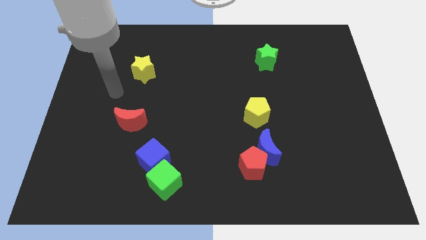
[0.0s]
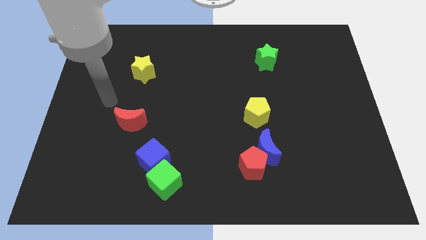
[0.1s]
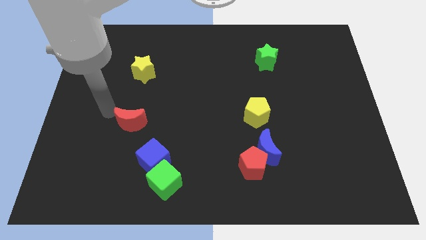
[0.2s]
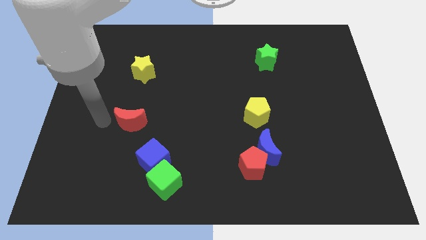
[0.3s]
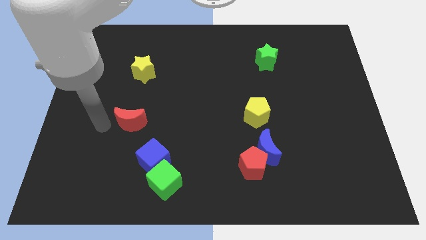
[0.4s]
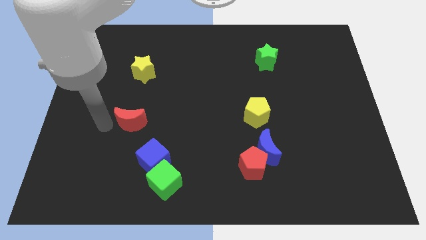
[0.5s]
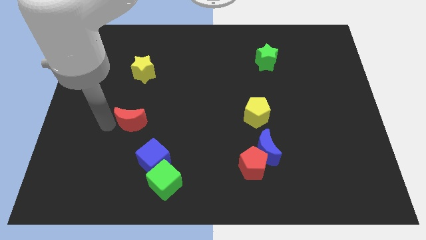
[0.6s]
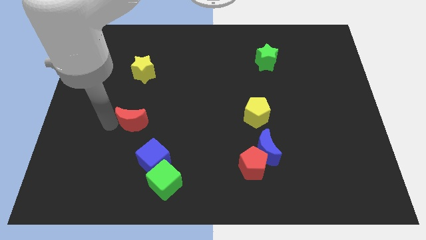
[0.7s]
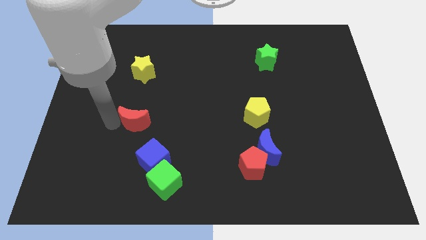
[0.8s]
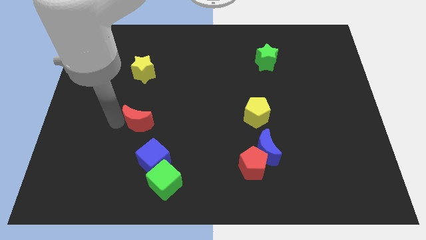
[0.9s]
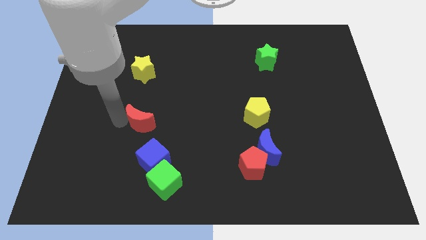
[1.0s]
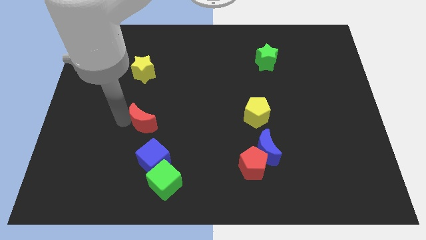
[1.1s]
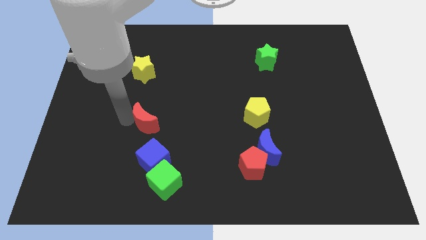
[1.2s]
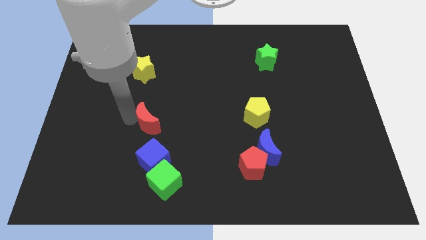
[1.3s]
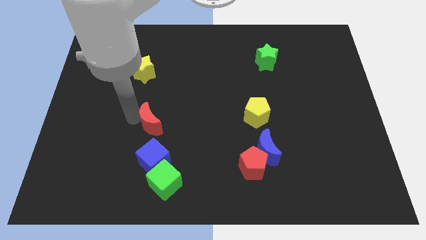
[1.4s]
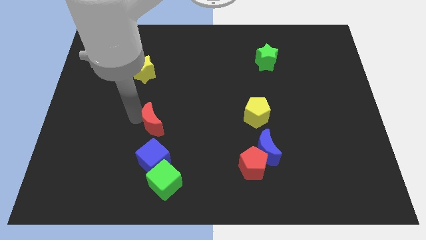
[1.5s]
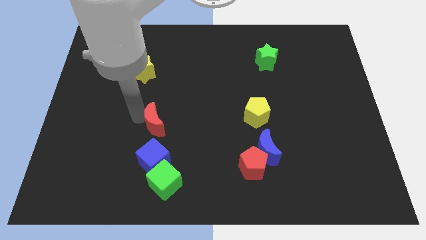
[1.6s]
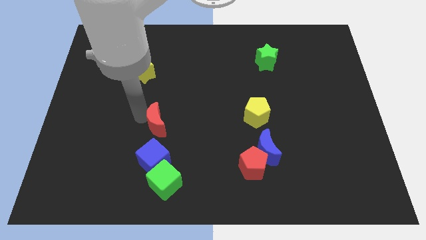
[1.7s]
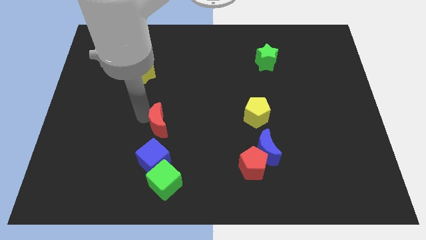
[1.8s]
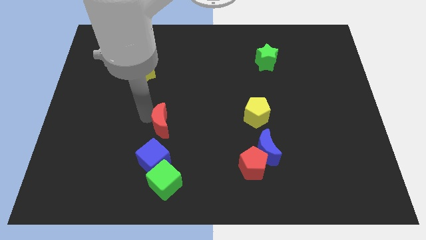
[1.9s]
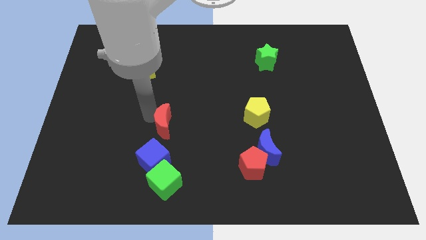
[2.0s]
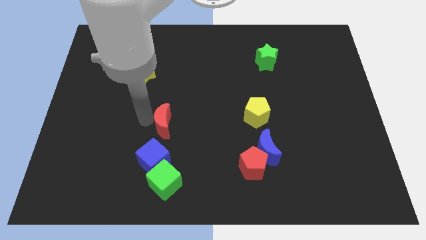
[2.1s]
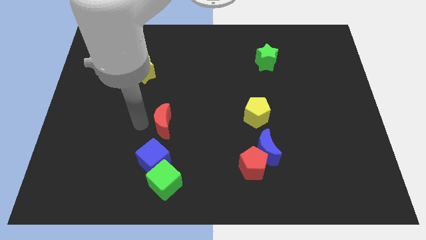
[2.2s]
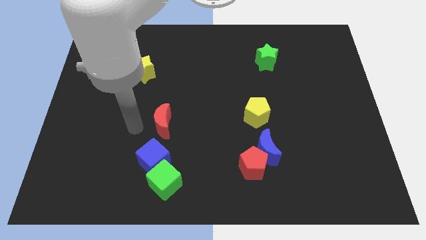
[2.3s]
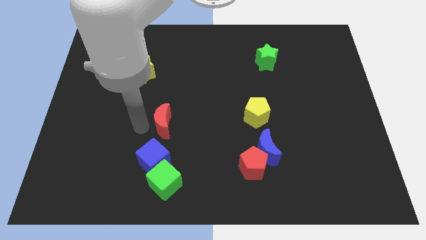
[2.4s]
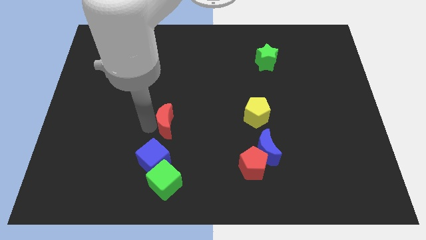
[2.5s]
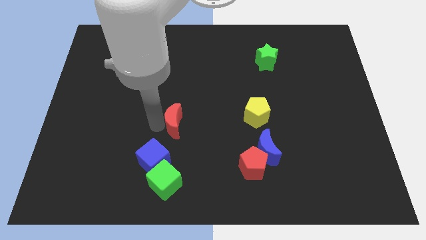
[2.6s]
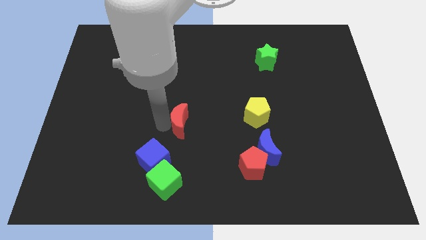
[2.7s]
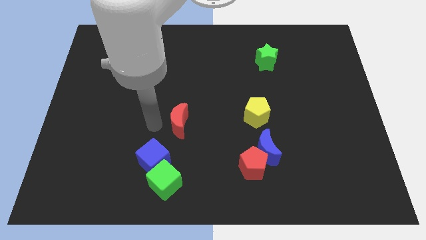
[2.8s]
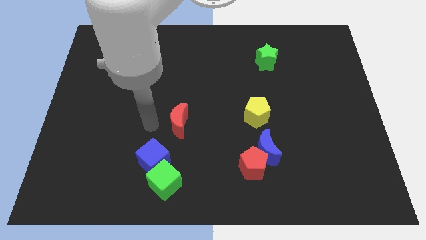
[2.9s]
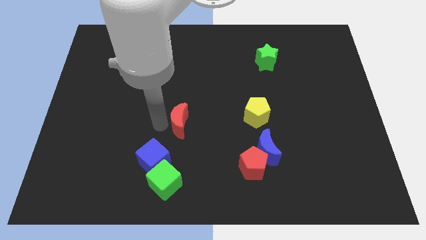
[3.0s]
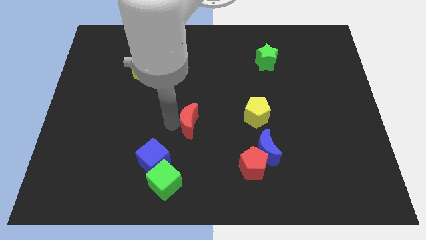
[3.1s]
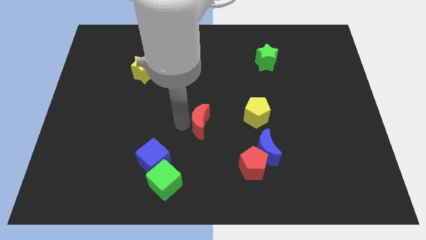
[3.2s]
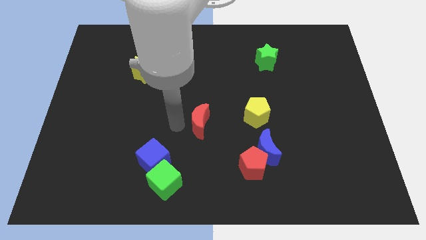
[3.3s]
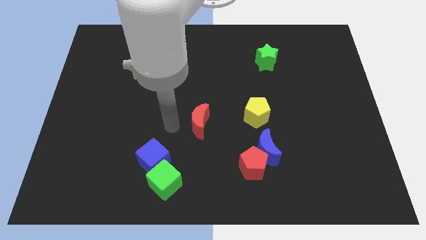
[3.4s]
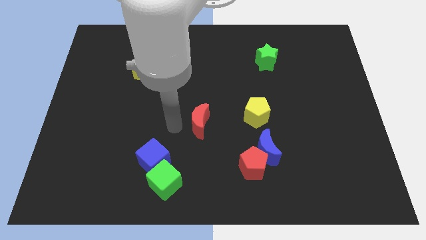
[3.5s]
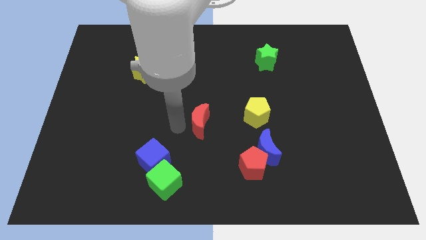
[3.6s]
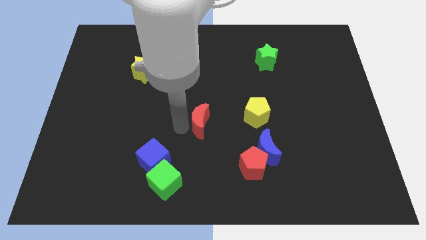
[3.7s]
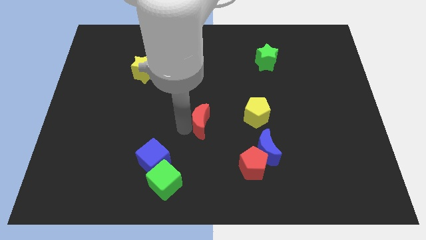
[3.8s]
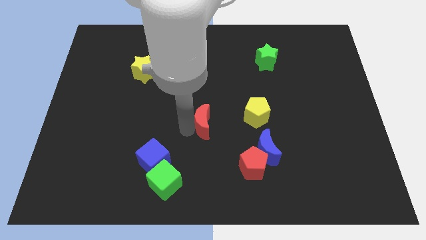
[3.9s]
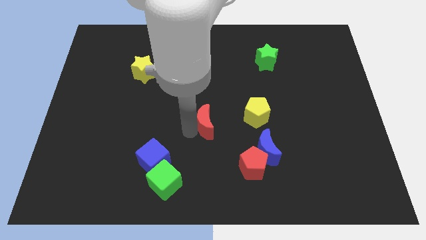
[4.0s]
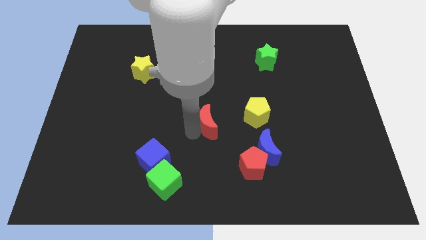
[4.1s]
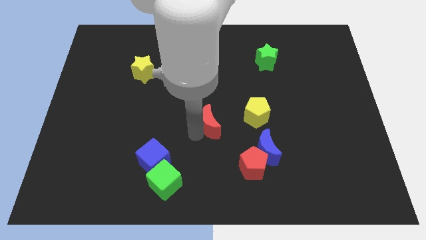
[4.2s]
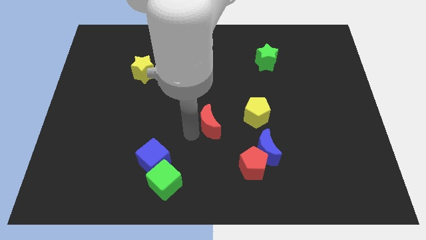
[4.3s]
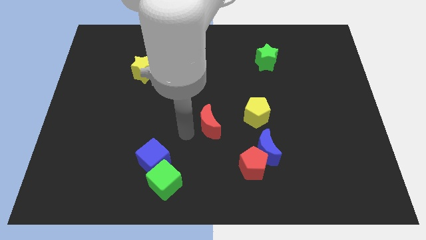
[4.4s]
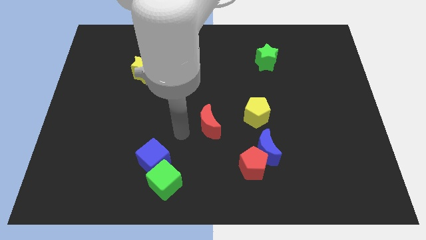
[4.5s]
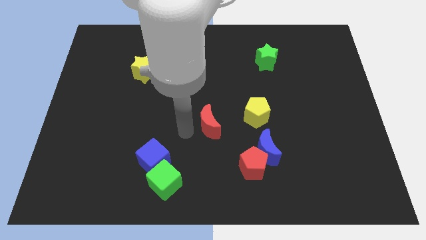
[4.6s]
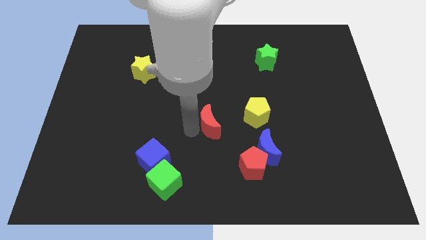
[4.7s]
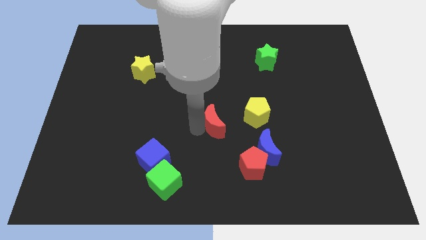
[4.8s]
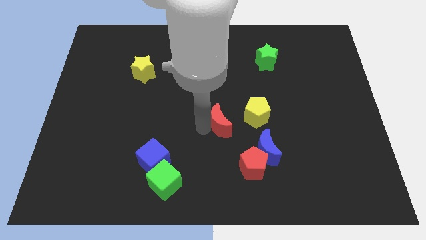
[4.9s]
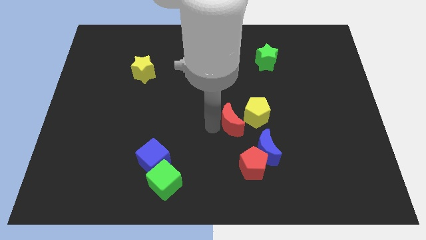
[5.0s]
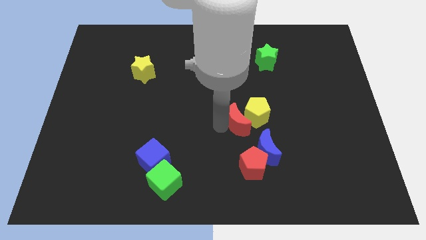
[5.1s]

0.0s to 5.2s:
put the red moon close to the yellow pentagon

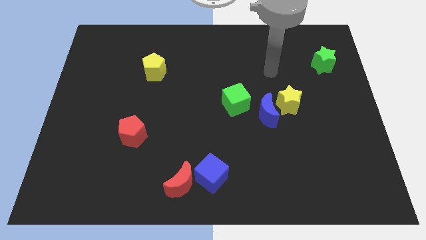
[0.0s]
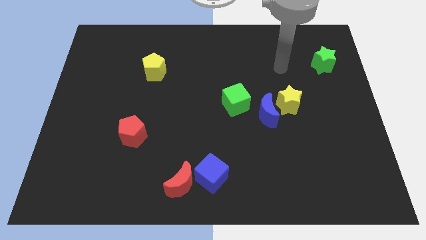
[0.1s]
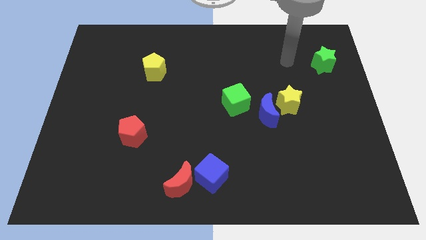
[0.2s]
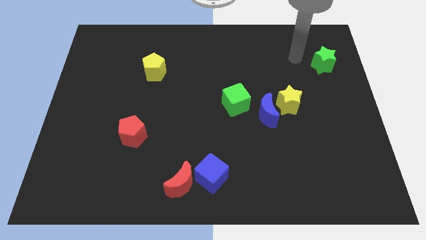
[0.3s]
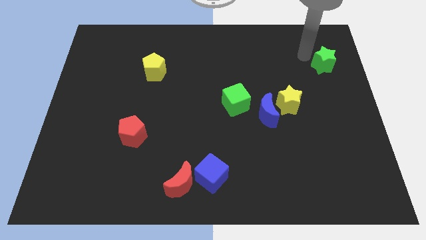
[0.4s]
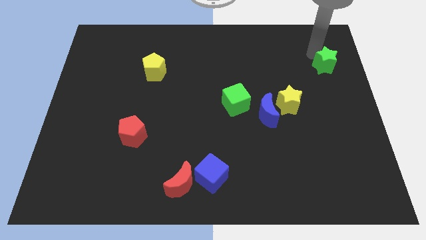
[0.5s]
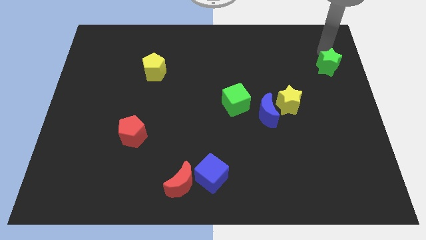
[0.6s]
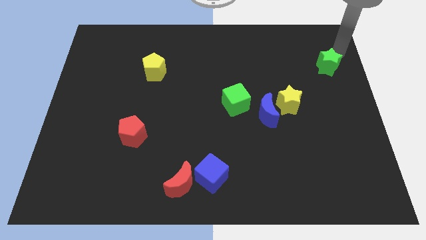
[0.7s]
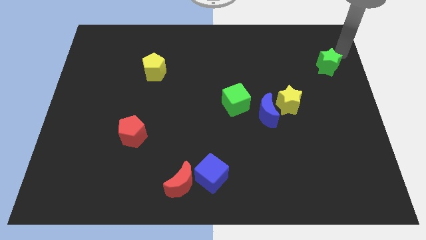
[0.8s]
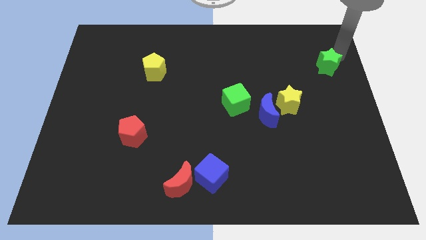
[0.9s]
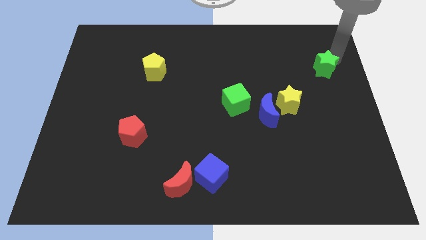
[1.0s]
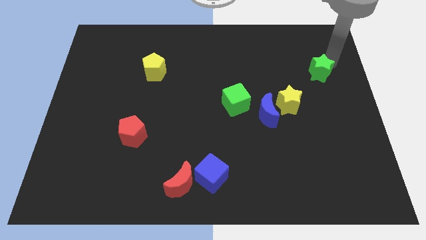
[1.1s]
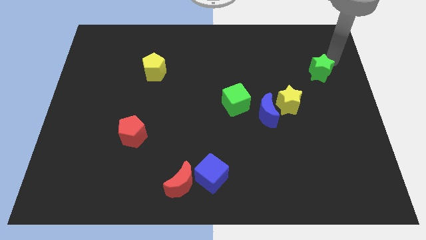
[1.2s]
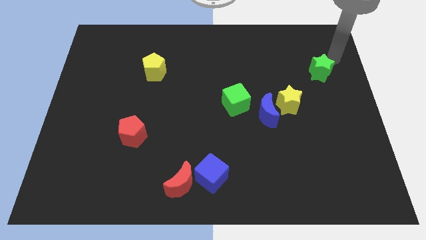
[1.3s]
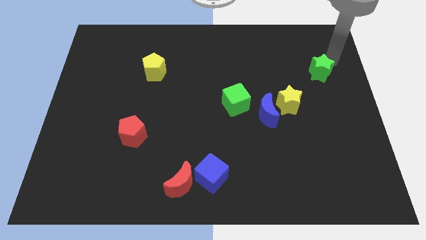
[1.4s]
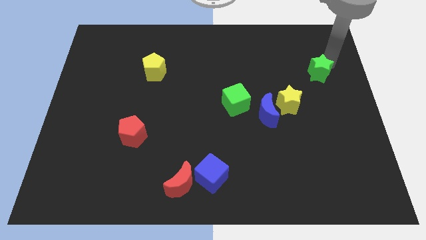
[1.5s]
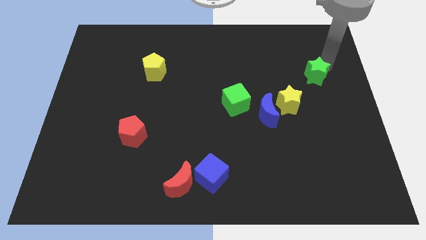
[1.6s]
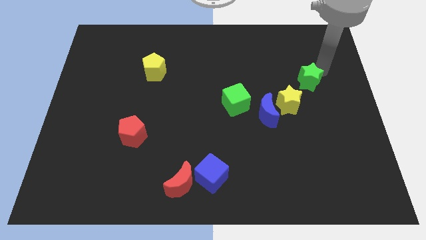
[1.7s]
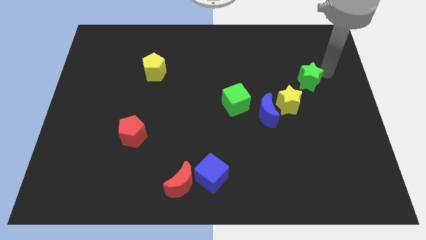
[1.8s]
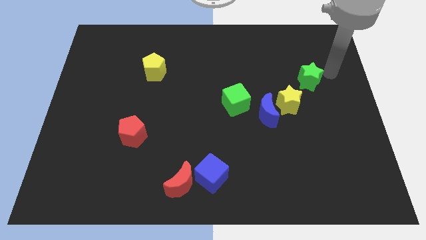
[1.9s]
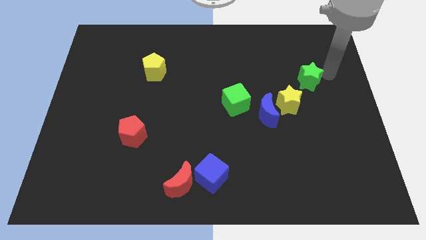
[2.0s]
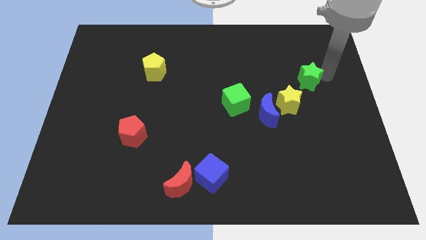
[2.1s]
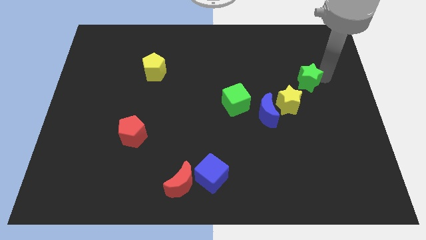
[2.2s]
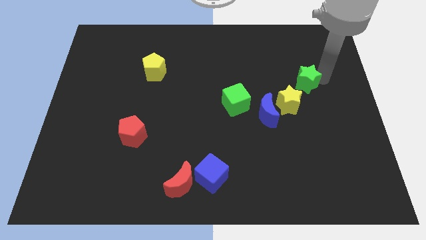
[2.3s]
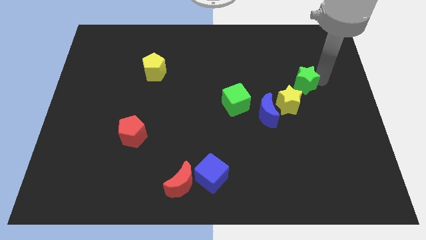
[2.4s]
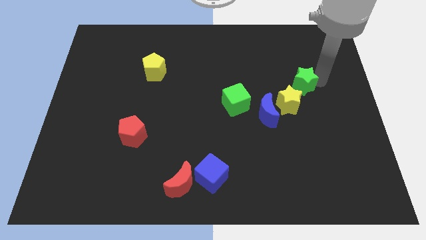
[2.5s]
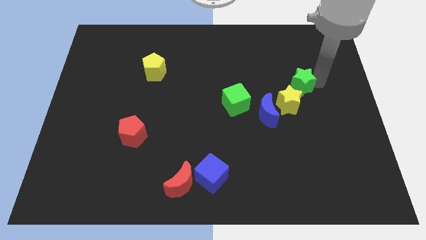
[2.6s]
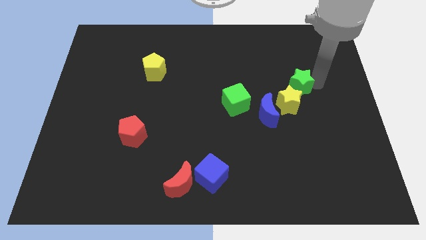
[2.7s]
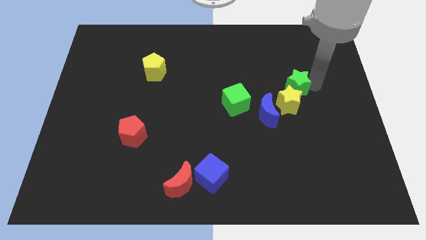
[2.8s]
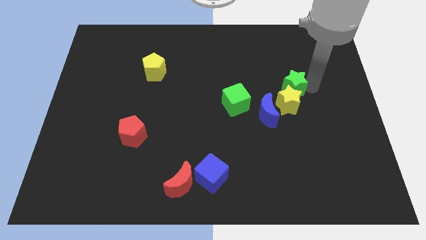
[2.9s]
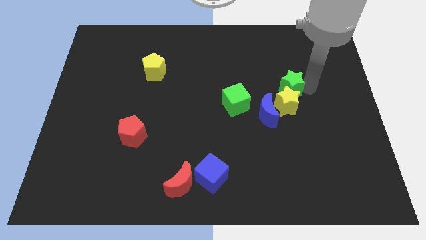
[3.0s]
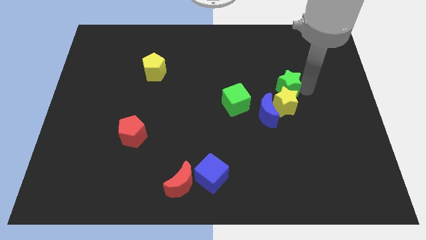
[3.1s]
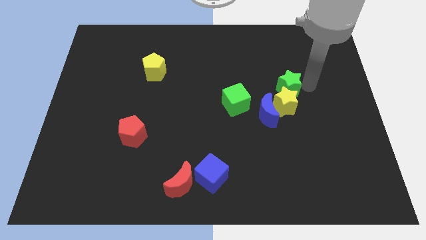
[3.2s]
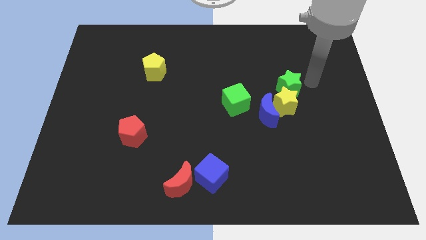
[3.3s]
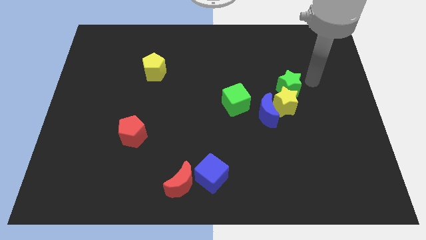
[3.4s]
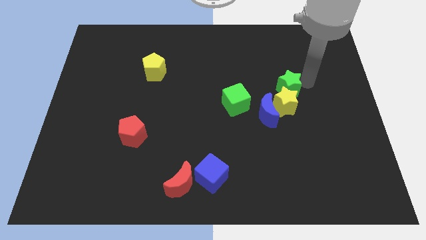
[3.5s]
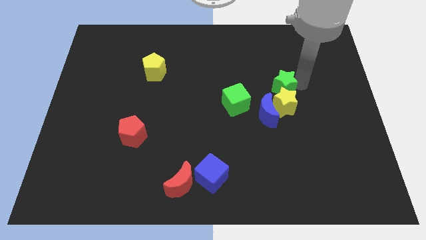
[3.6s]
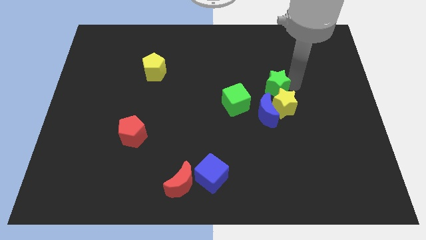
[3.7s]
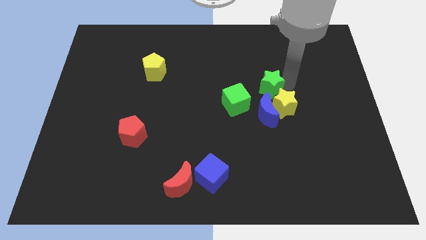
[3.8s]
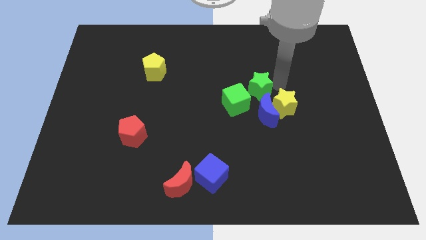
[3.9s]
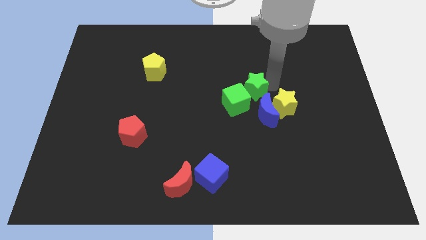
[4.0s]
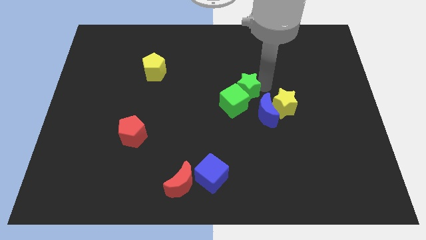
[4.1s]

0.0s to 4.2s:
move the green star to the green cube
